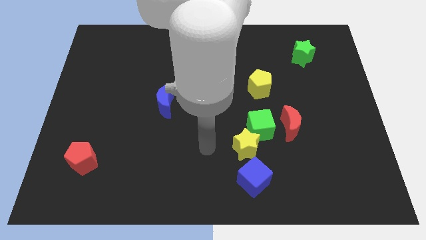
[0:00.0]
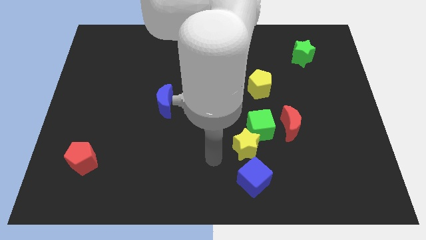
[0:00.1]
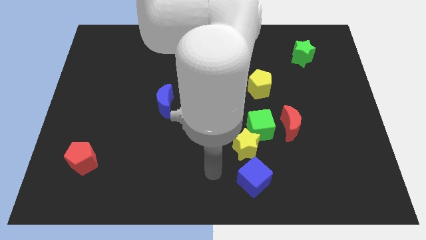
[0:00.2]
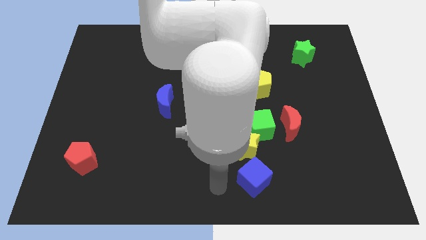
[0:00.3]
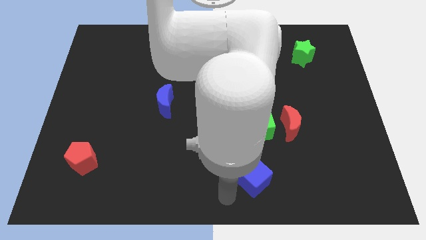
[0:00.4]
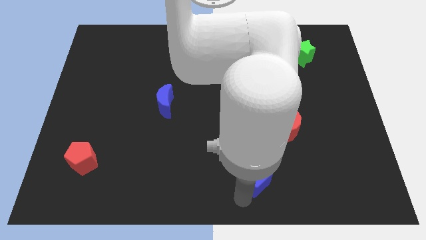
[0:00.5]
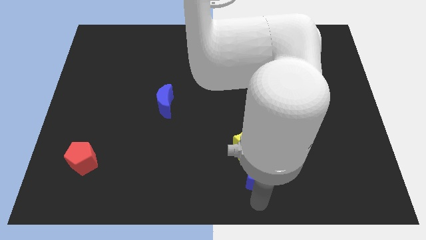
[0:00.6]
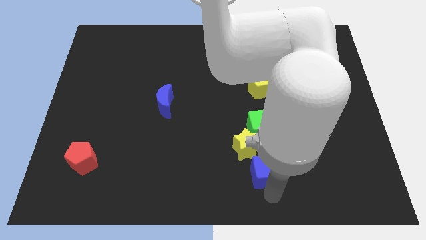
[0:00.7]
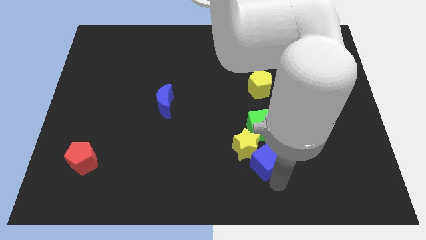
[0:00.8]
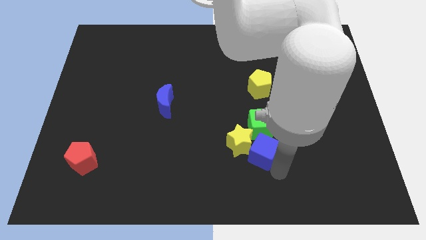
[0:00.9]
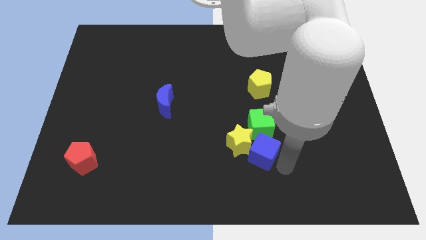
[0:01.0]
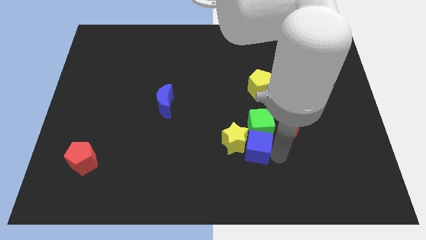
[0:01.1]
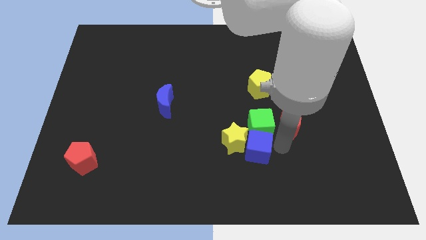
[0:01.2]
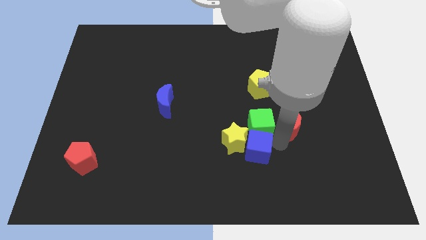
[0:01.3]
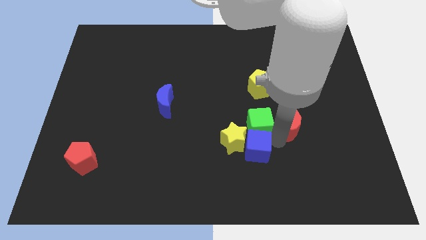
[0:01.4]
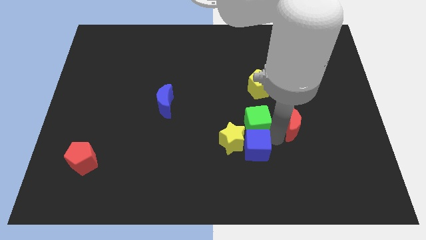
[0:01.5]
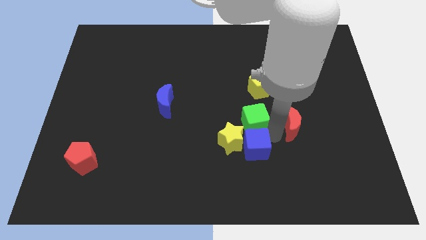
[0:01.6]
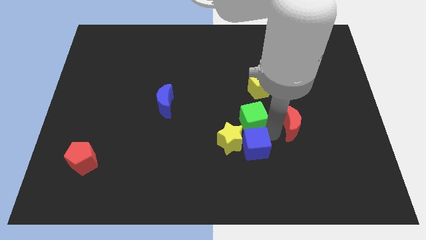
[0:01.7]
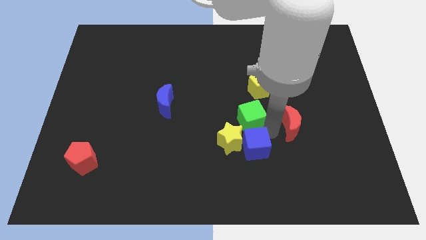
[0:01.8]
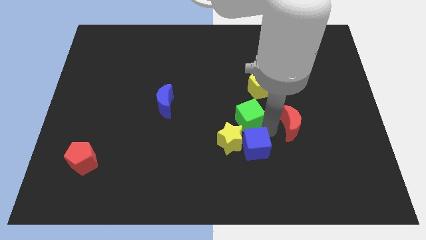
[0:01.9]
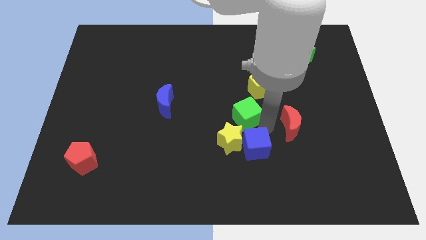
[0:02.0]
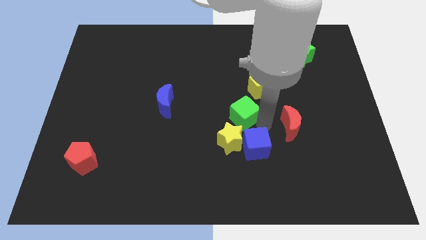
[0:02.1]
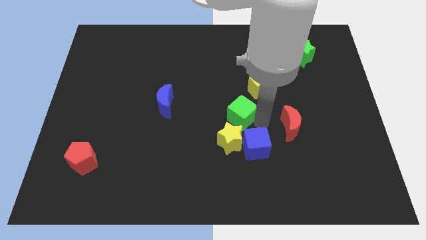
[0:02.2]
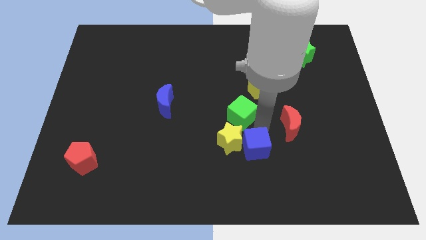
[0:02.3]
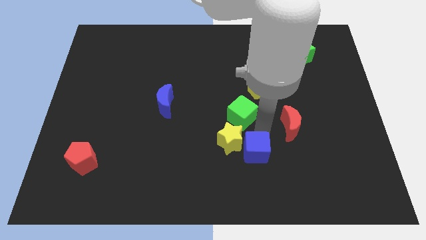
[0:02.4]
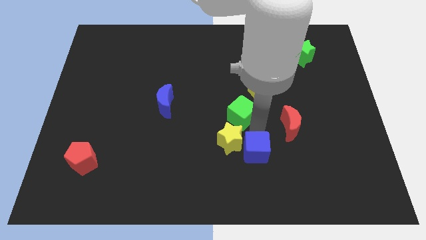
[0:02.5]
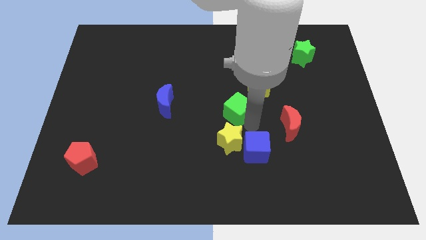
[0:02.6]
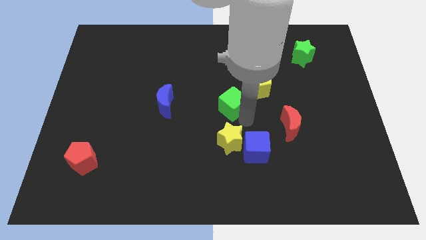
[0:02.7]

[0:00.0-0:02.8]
separate the green cube from the yellow star and red moon

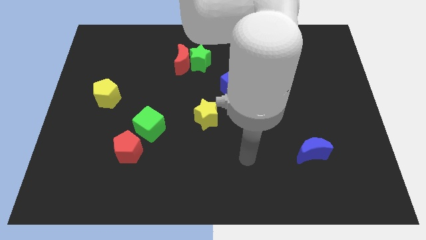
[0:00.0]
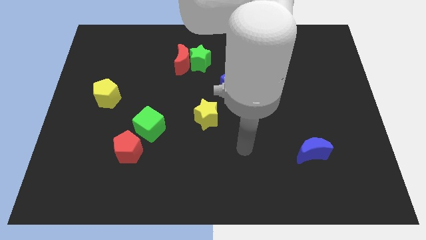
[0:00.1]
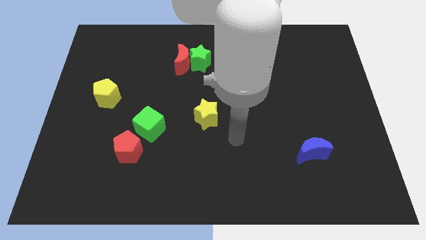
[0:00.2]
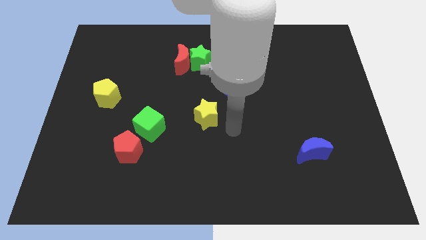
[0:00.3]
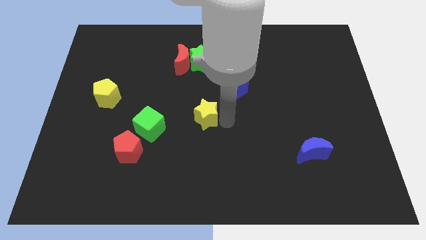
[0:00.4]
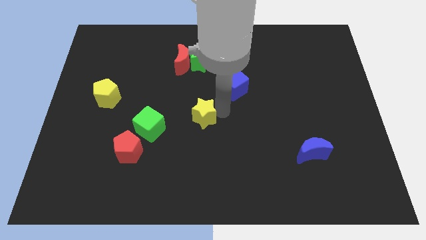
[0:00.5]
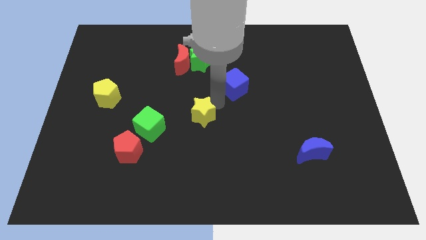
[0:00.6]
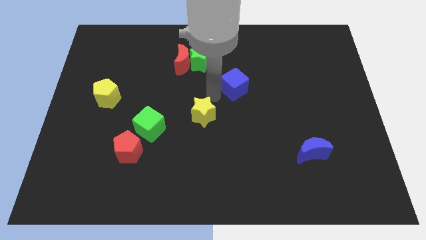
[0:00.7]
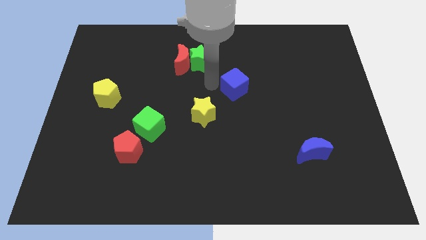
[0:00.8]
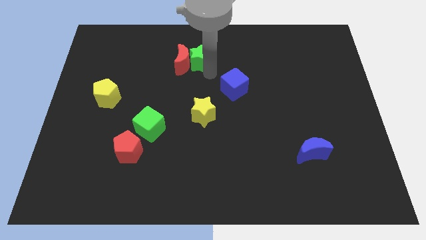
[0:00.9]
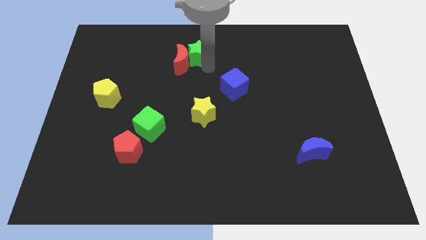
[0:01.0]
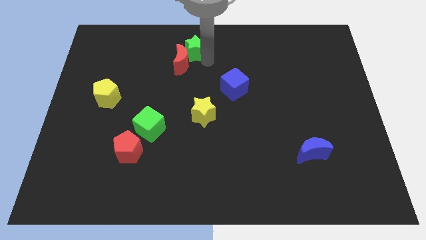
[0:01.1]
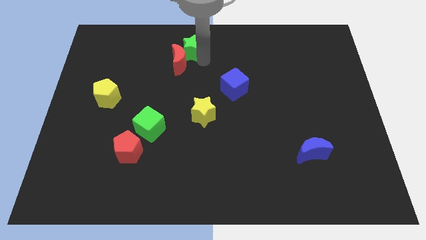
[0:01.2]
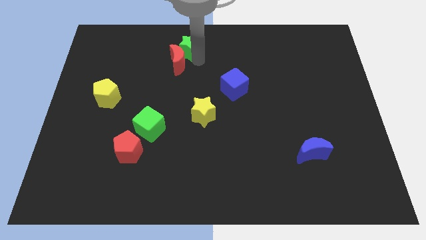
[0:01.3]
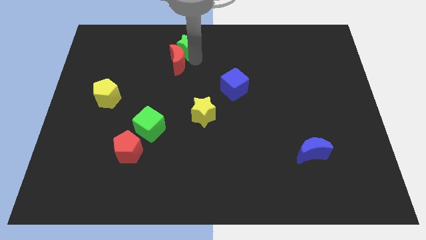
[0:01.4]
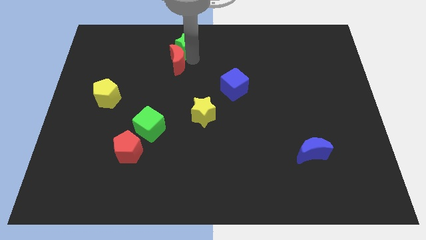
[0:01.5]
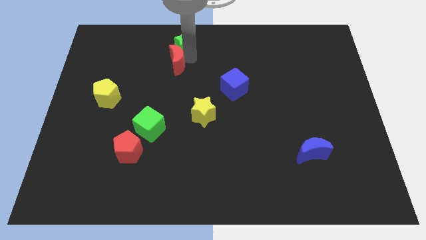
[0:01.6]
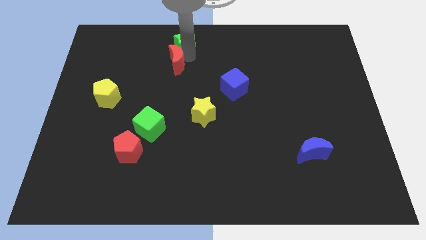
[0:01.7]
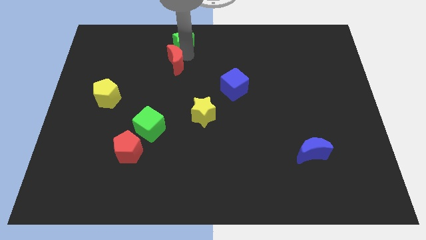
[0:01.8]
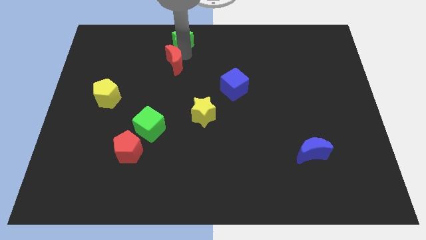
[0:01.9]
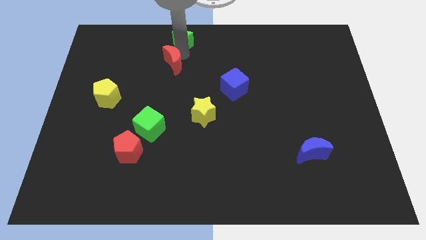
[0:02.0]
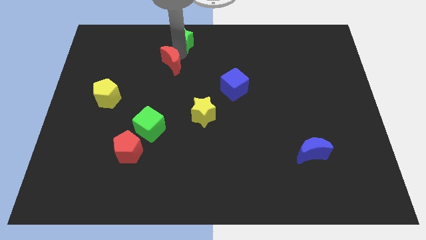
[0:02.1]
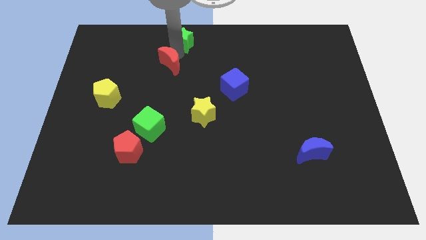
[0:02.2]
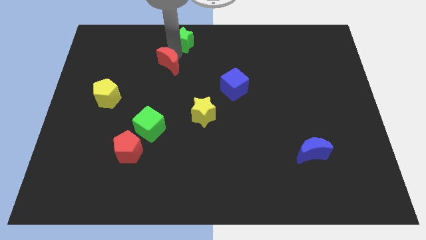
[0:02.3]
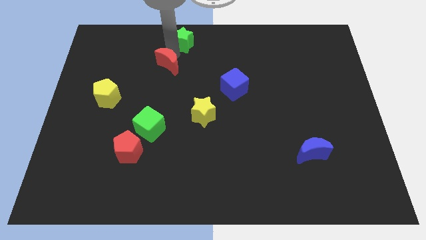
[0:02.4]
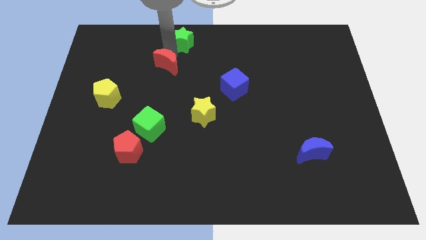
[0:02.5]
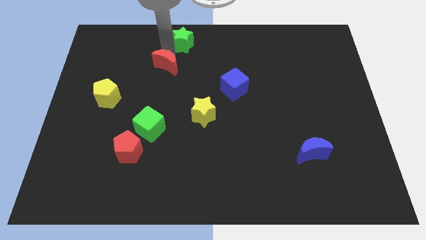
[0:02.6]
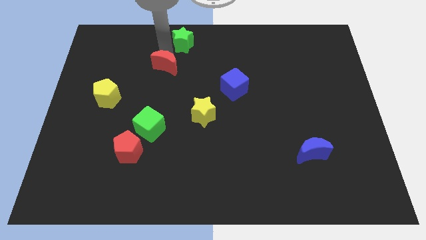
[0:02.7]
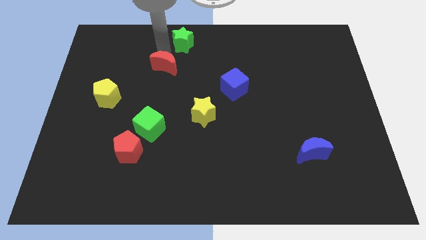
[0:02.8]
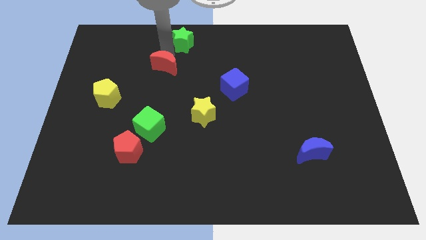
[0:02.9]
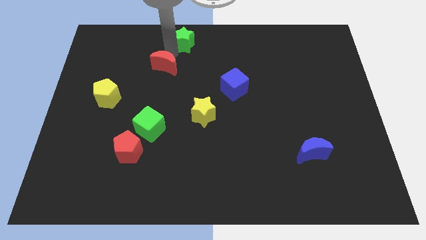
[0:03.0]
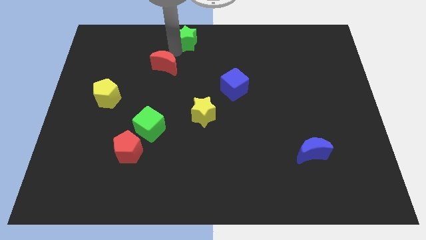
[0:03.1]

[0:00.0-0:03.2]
separate the red moon from the green star

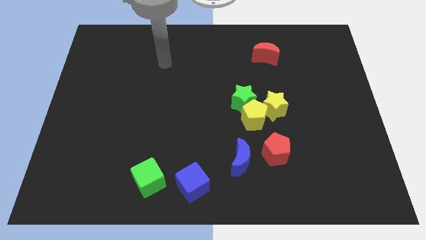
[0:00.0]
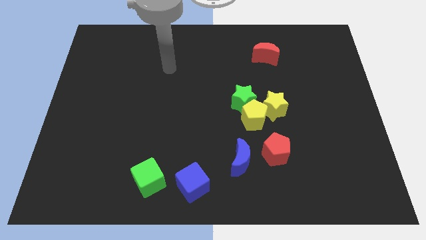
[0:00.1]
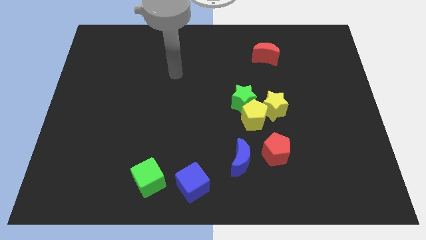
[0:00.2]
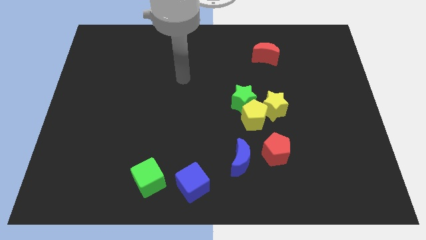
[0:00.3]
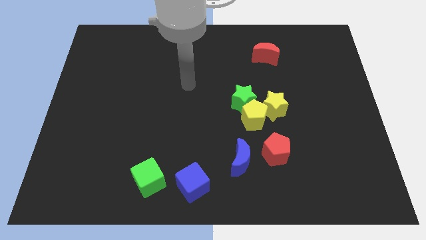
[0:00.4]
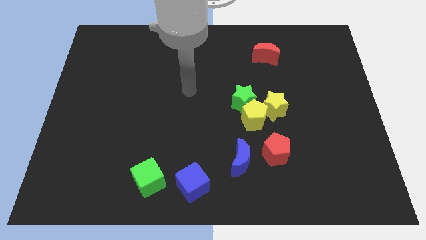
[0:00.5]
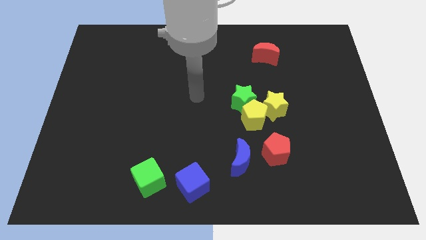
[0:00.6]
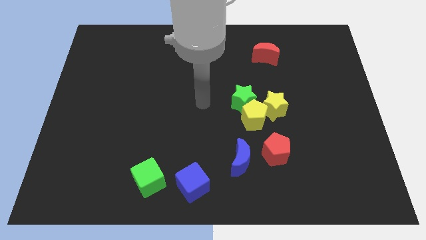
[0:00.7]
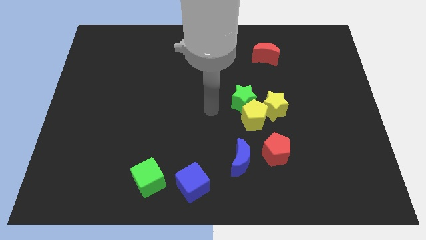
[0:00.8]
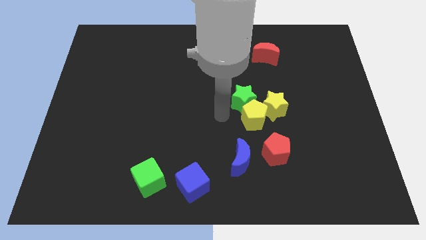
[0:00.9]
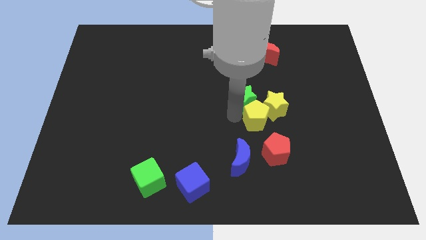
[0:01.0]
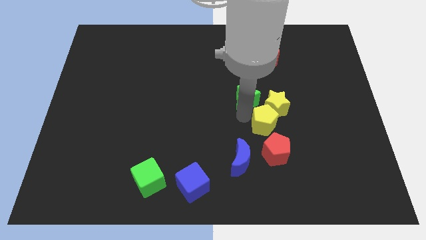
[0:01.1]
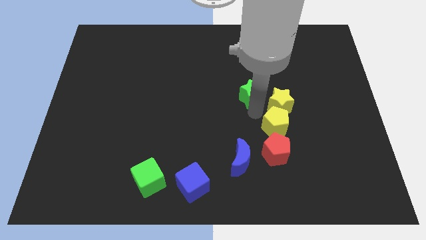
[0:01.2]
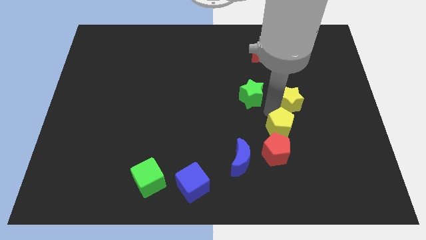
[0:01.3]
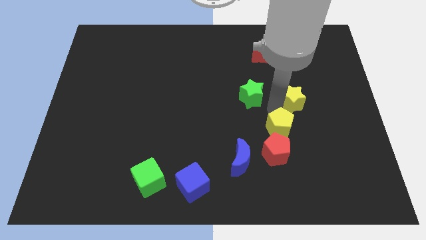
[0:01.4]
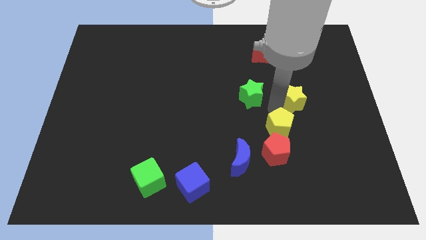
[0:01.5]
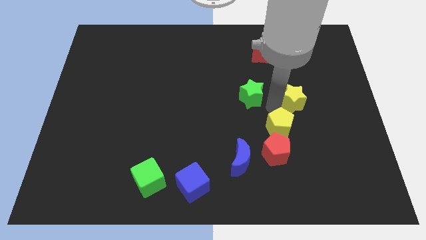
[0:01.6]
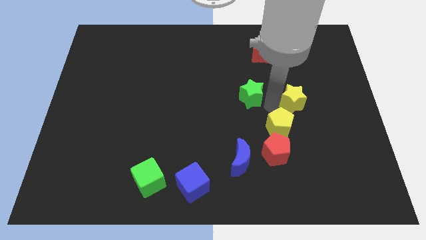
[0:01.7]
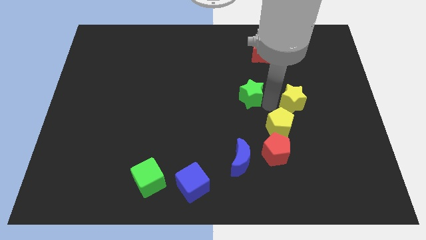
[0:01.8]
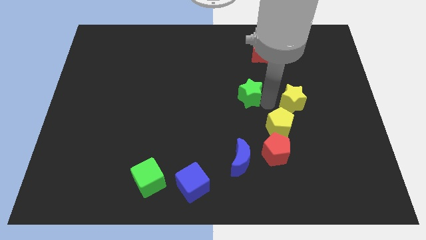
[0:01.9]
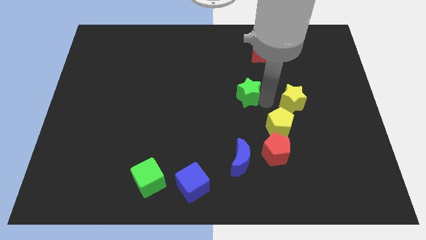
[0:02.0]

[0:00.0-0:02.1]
move the green star away from the yellow pentagon and yellow star

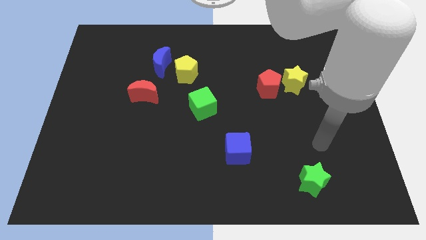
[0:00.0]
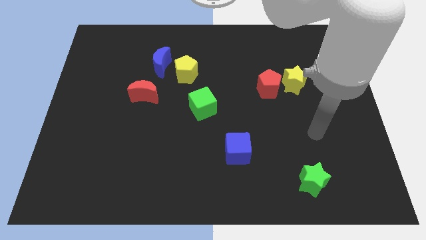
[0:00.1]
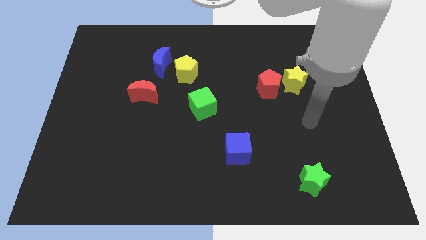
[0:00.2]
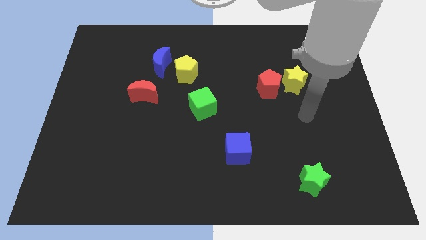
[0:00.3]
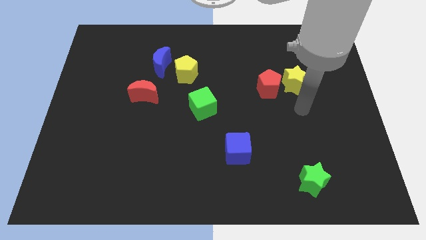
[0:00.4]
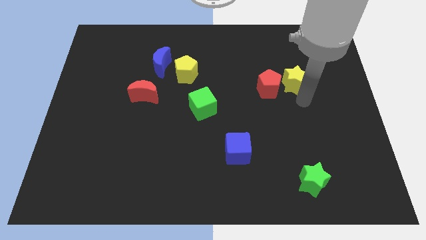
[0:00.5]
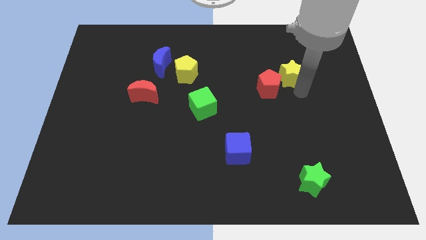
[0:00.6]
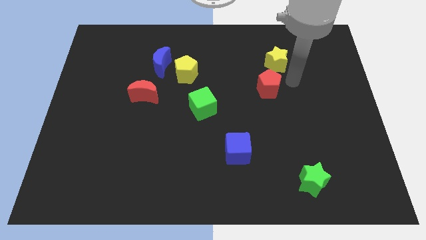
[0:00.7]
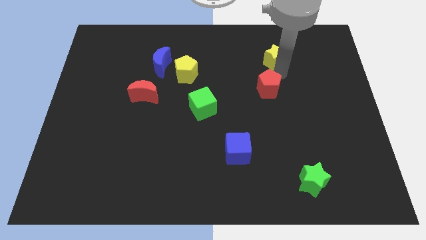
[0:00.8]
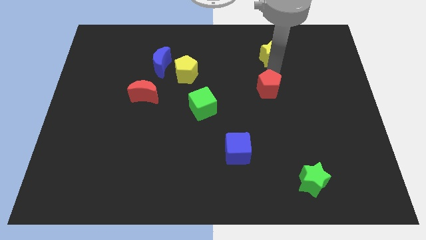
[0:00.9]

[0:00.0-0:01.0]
separate the red pentagon from the yellow star

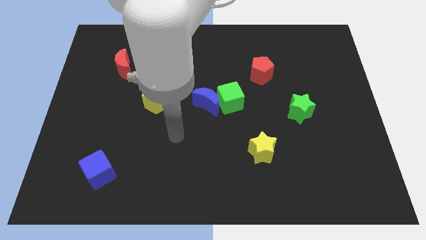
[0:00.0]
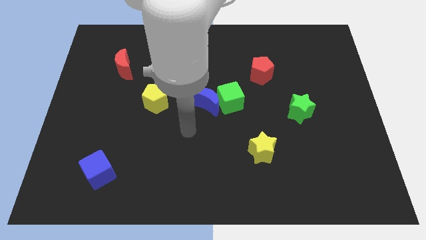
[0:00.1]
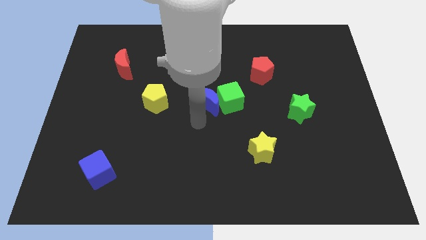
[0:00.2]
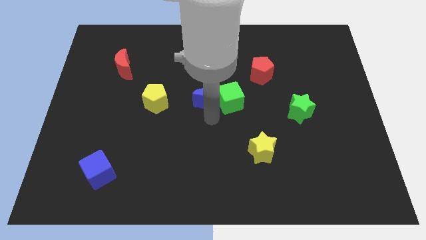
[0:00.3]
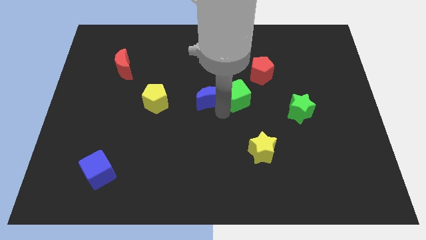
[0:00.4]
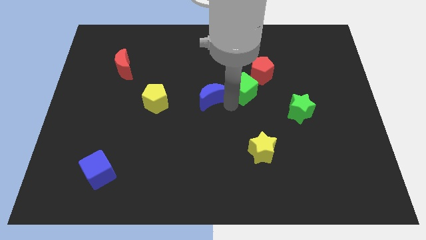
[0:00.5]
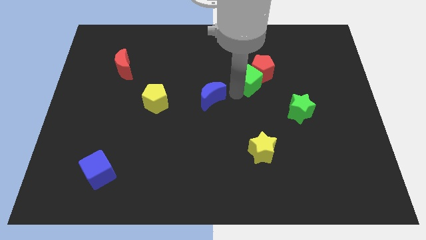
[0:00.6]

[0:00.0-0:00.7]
move the blue moon away from the green cube
